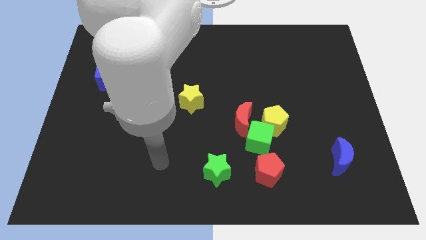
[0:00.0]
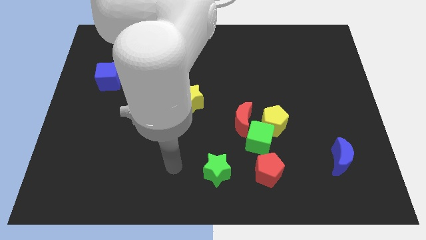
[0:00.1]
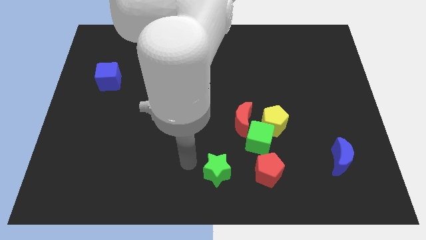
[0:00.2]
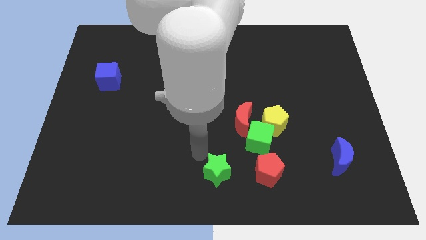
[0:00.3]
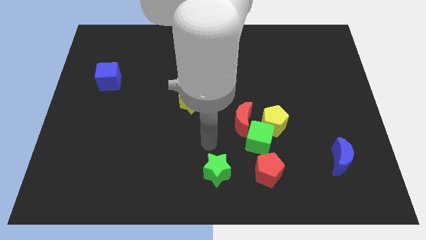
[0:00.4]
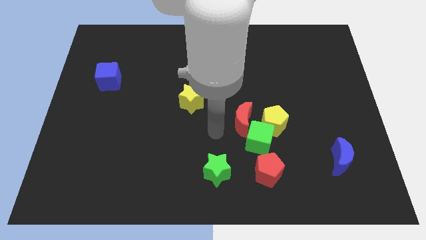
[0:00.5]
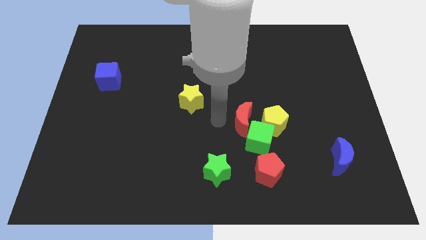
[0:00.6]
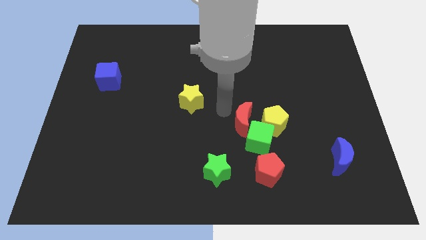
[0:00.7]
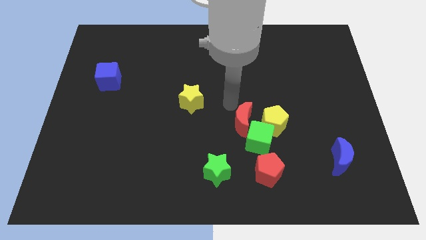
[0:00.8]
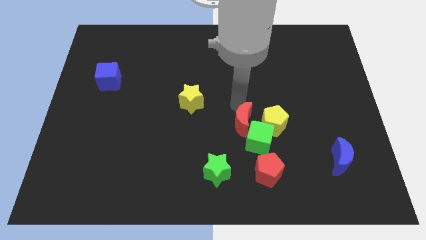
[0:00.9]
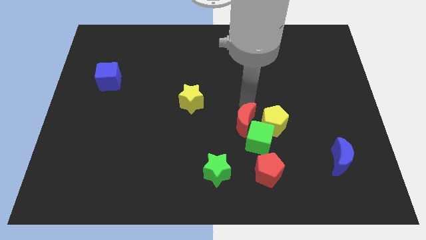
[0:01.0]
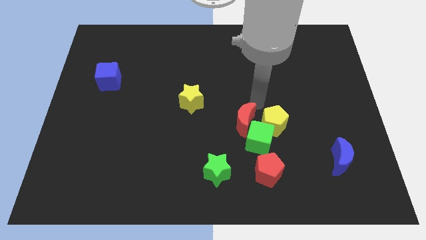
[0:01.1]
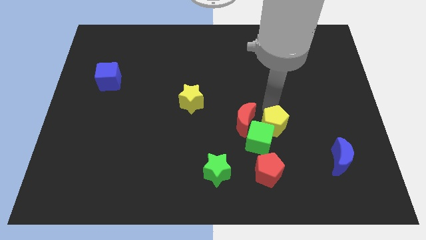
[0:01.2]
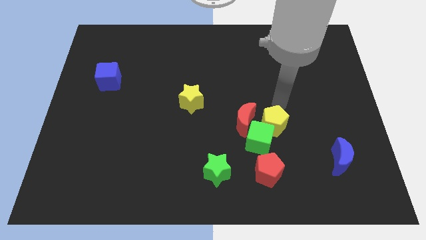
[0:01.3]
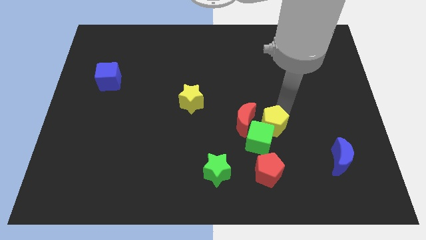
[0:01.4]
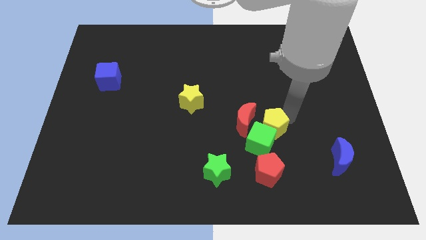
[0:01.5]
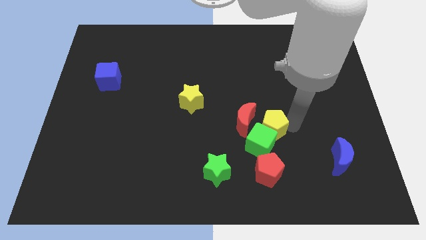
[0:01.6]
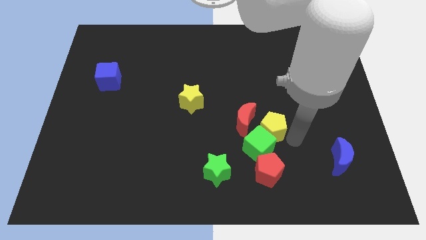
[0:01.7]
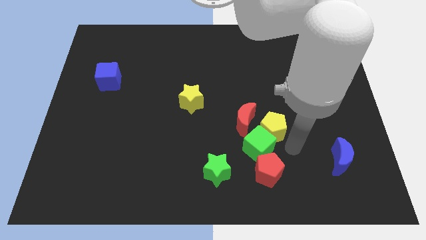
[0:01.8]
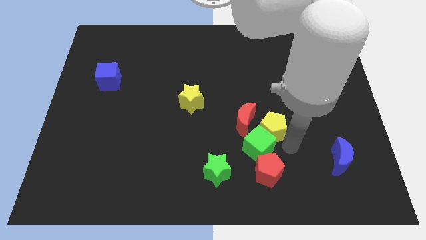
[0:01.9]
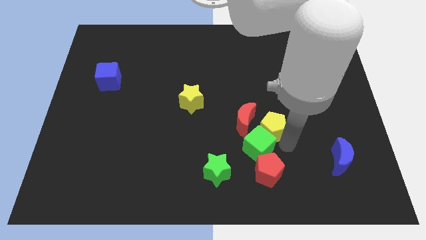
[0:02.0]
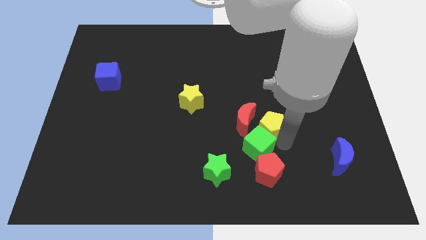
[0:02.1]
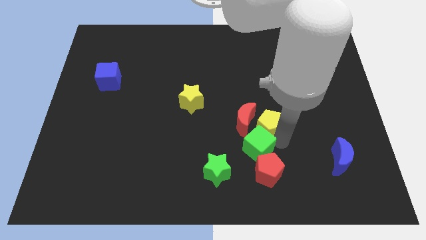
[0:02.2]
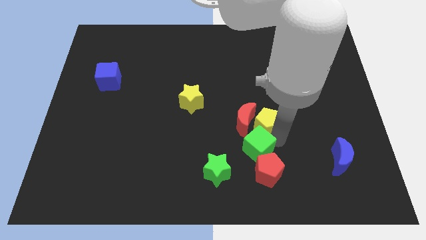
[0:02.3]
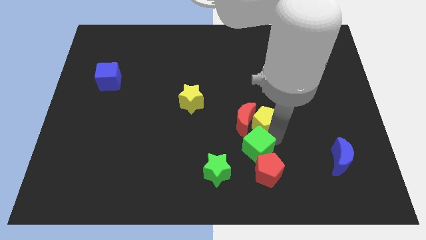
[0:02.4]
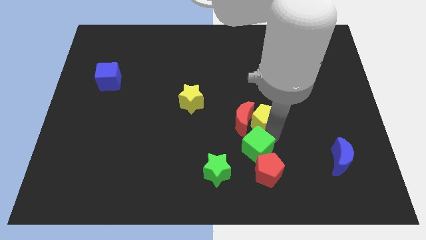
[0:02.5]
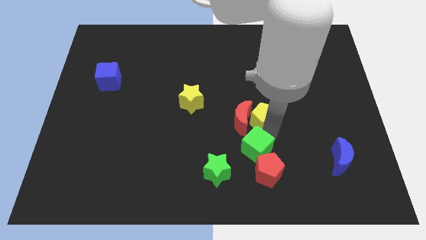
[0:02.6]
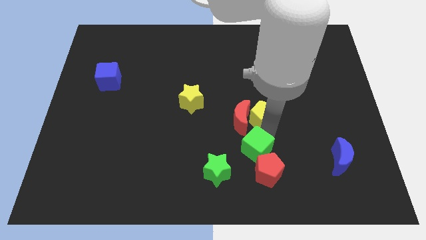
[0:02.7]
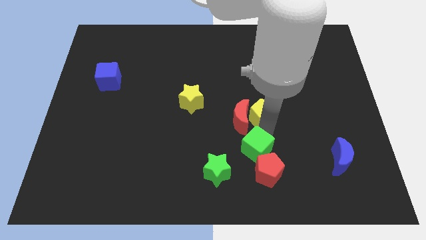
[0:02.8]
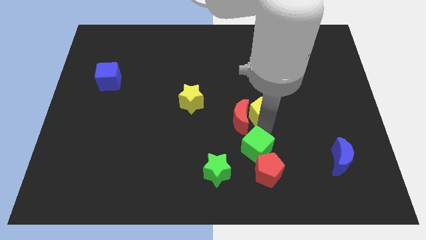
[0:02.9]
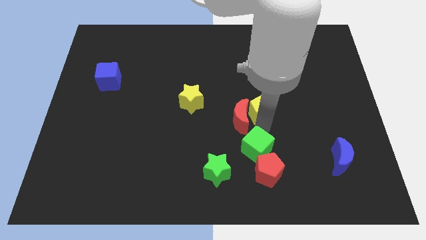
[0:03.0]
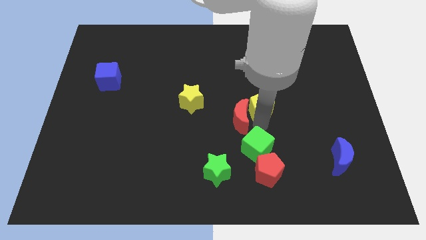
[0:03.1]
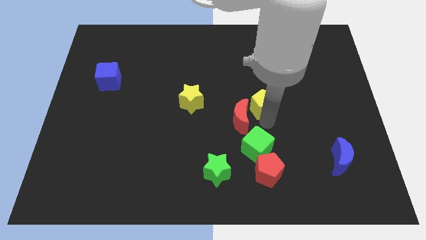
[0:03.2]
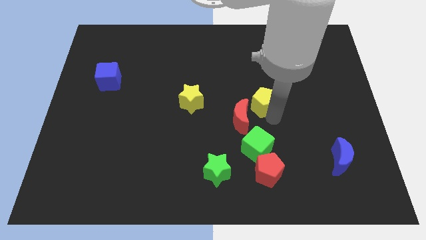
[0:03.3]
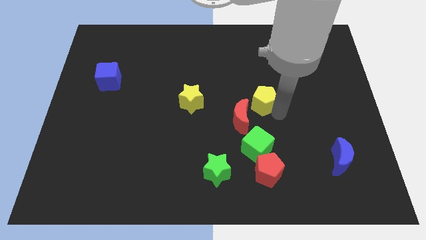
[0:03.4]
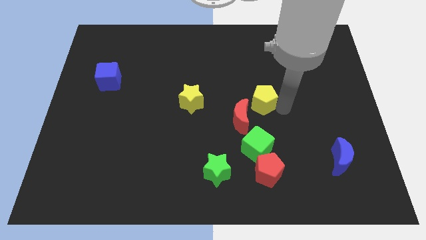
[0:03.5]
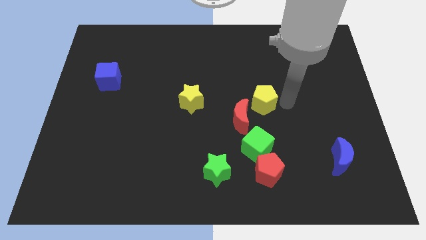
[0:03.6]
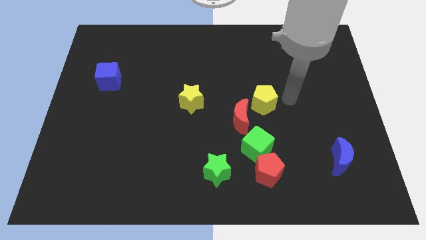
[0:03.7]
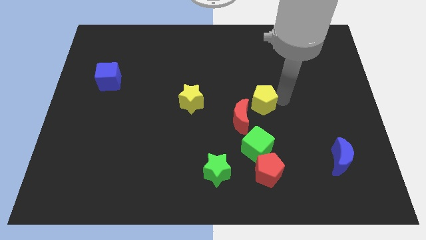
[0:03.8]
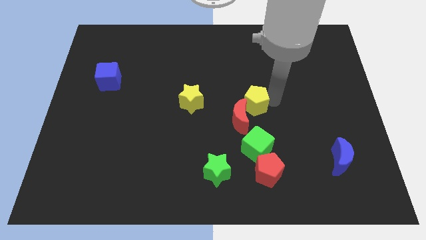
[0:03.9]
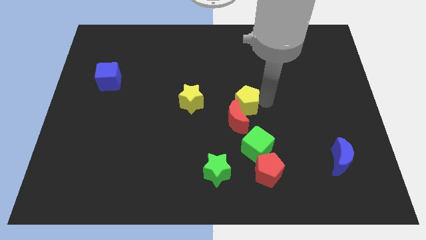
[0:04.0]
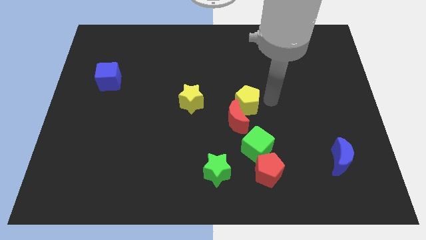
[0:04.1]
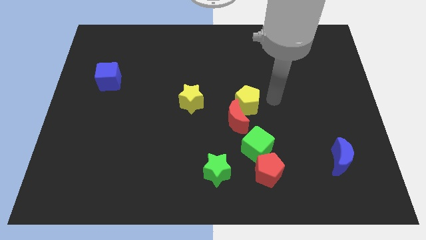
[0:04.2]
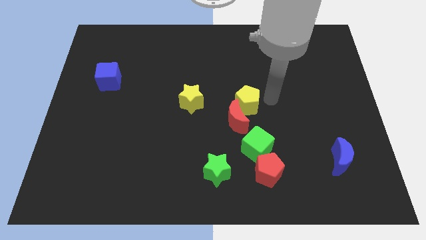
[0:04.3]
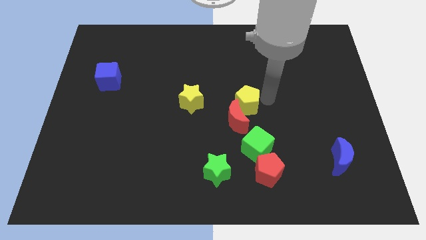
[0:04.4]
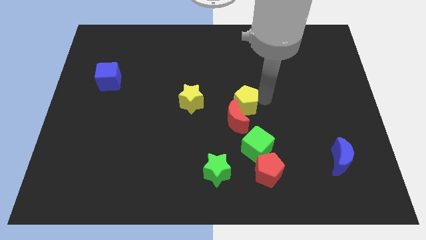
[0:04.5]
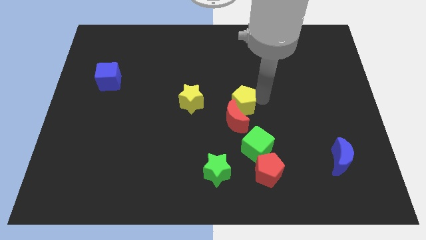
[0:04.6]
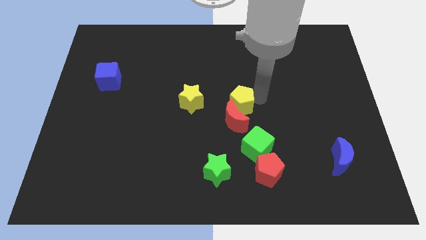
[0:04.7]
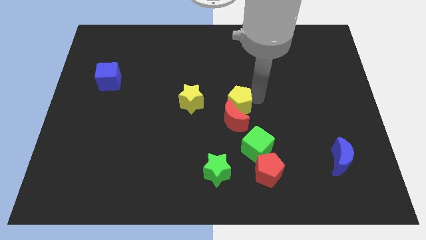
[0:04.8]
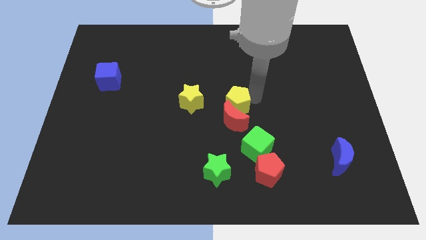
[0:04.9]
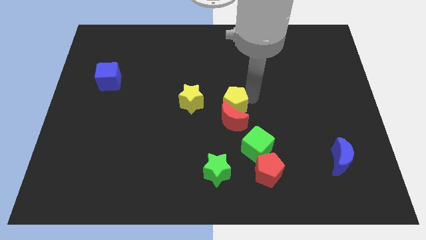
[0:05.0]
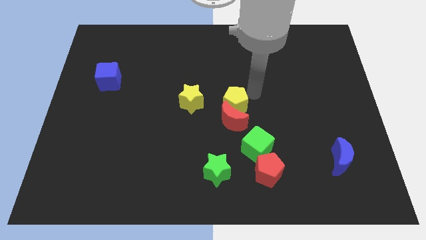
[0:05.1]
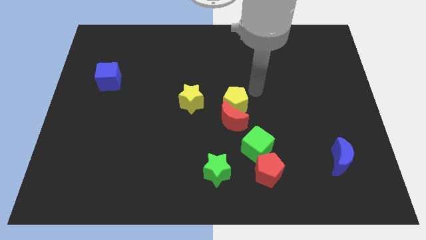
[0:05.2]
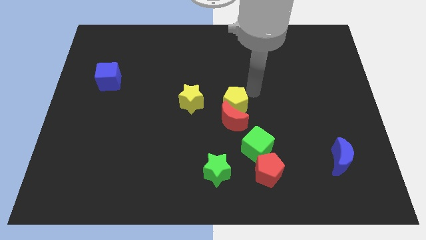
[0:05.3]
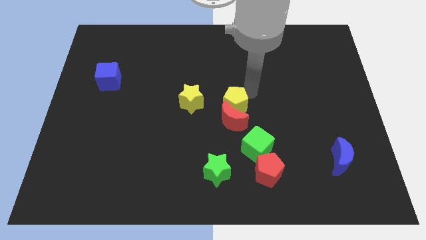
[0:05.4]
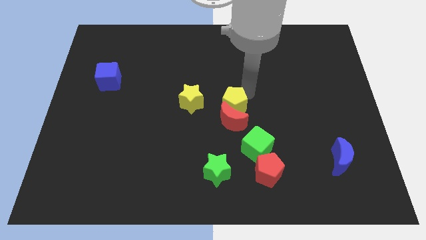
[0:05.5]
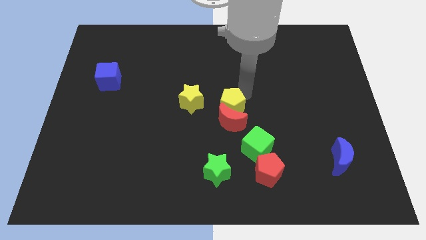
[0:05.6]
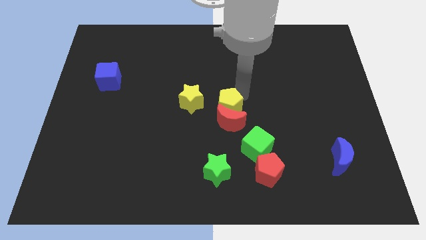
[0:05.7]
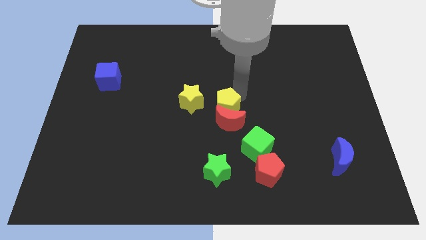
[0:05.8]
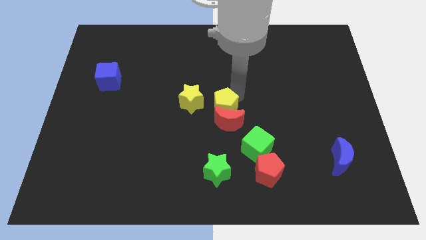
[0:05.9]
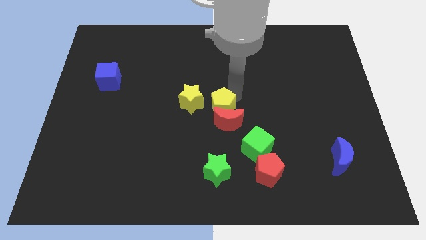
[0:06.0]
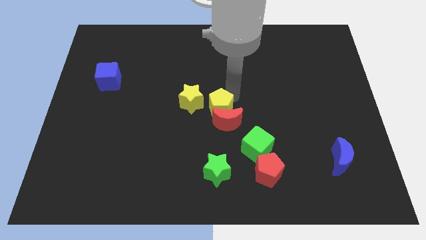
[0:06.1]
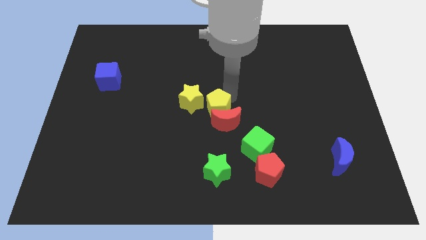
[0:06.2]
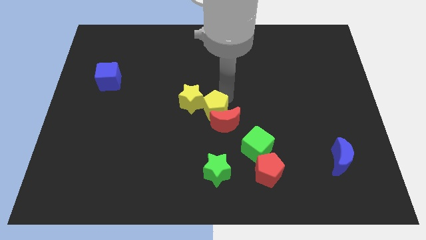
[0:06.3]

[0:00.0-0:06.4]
slide the yellow pentagon to the left of the red moon

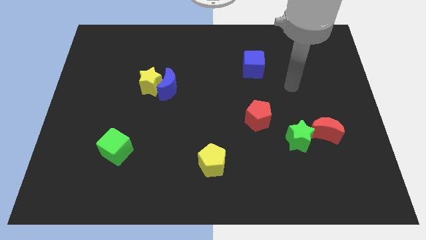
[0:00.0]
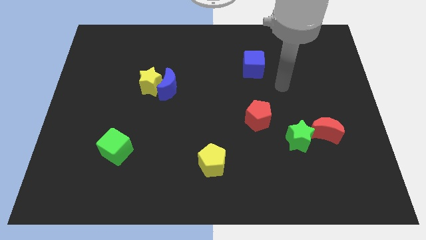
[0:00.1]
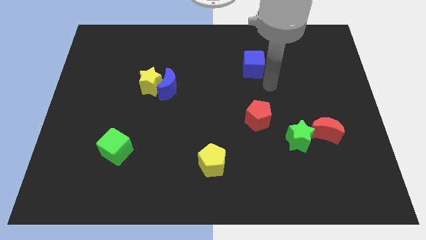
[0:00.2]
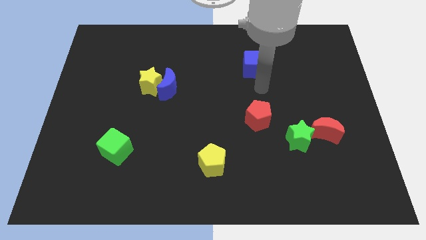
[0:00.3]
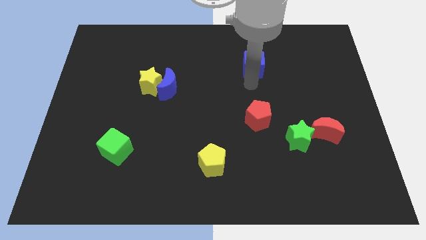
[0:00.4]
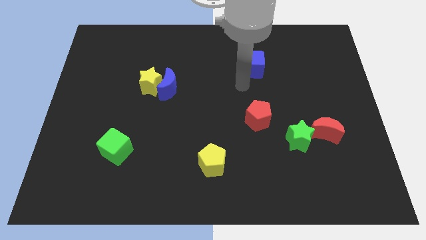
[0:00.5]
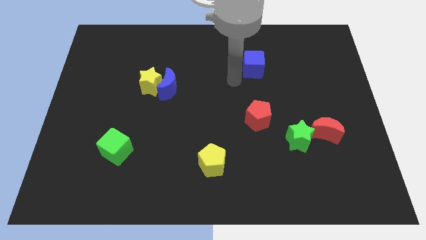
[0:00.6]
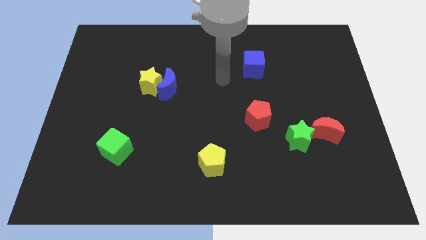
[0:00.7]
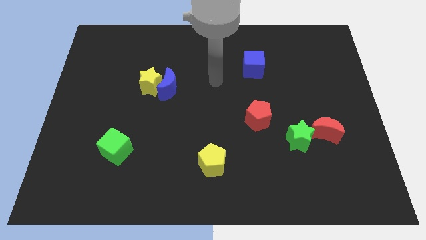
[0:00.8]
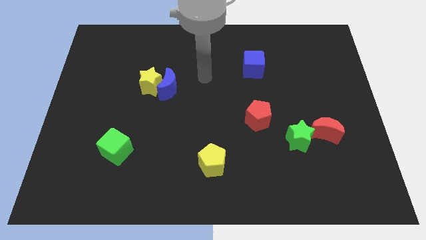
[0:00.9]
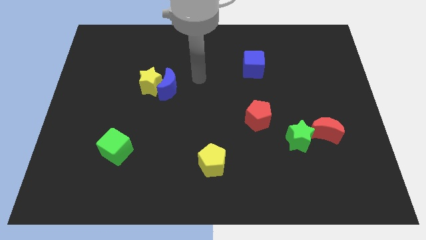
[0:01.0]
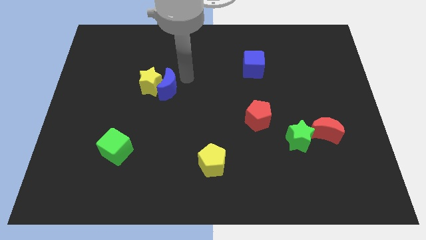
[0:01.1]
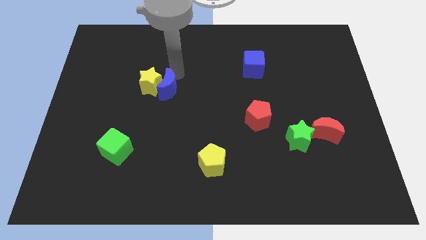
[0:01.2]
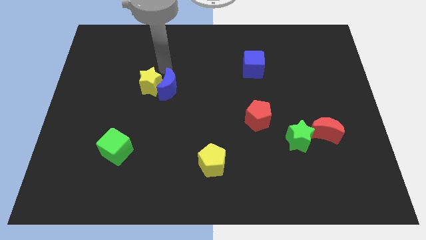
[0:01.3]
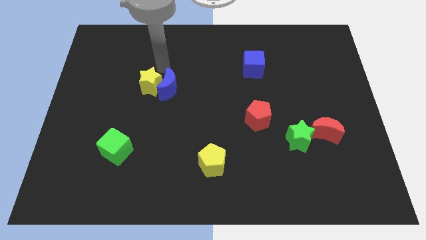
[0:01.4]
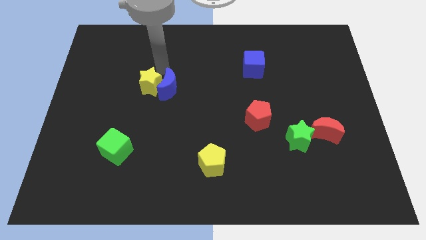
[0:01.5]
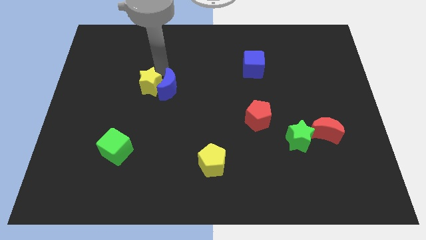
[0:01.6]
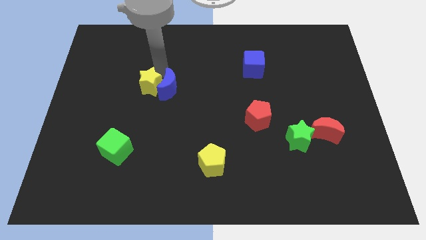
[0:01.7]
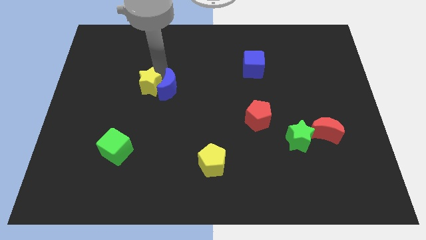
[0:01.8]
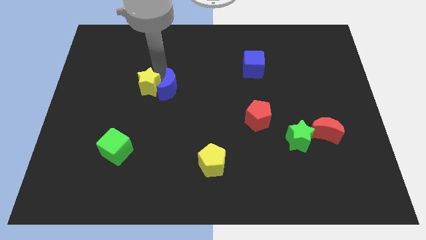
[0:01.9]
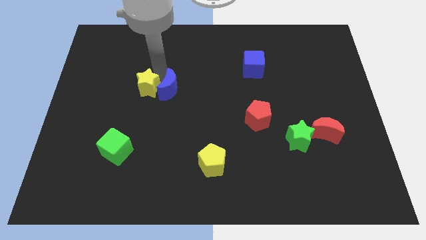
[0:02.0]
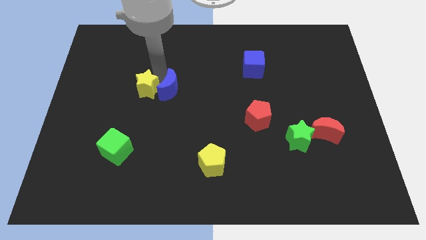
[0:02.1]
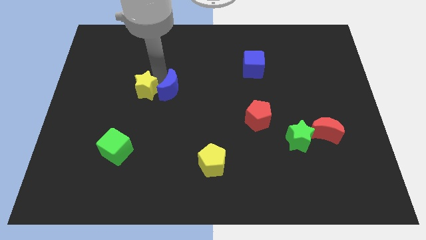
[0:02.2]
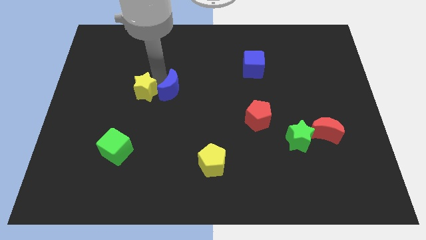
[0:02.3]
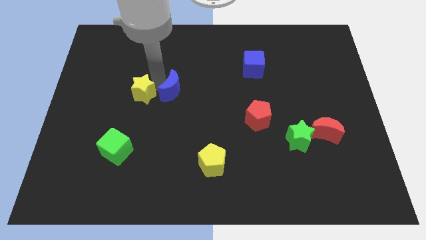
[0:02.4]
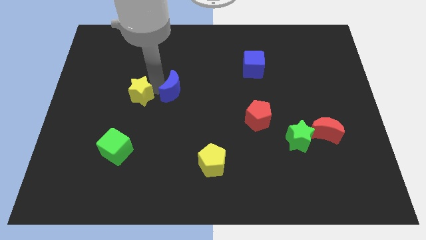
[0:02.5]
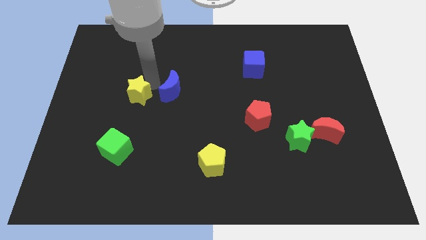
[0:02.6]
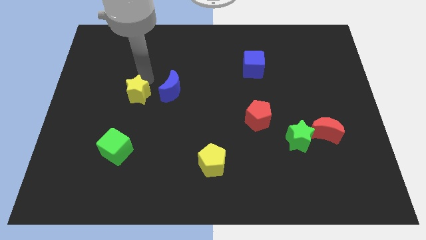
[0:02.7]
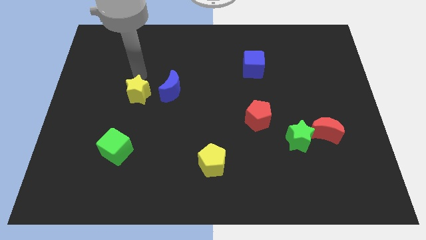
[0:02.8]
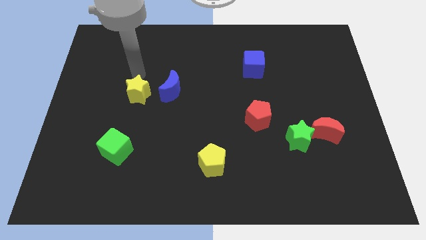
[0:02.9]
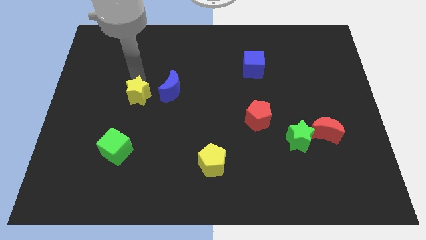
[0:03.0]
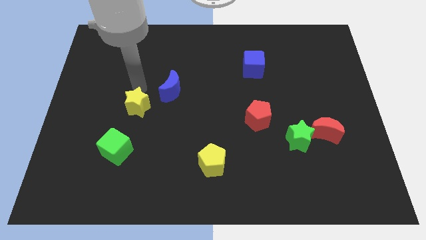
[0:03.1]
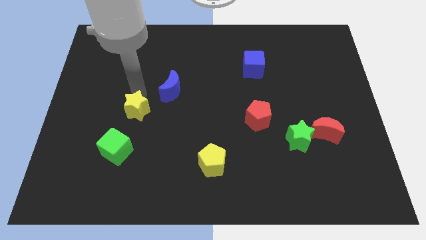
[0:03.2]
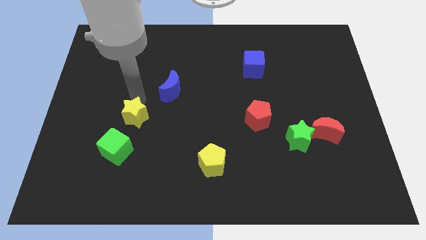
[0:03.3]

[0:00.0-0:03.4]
move the yellow star to the top right of the green cube
